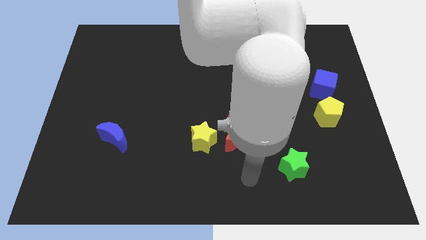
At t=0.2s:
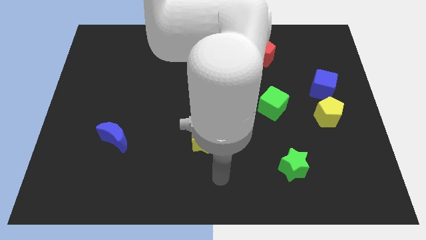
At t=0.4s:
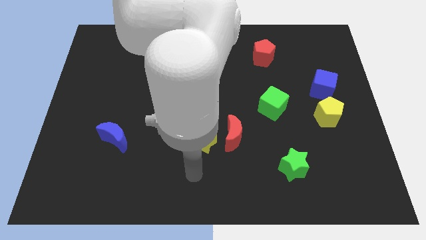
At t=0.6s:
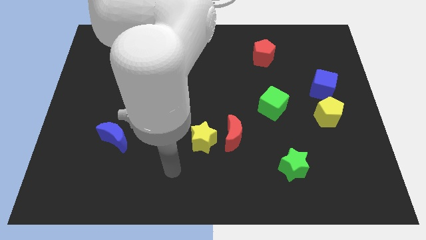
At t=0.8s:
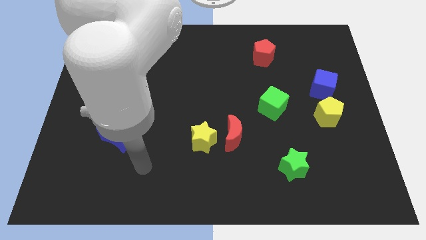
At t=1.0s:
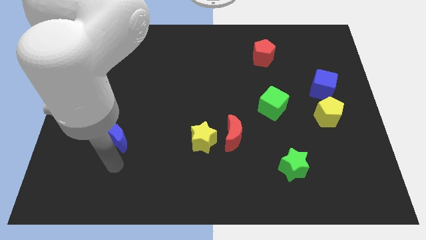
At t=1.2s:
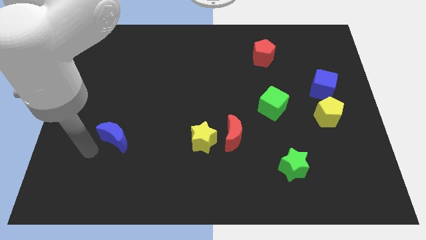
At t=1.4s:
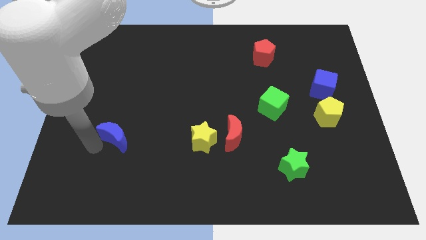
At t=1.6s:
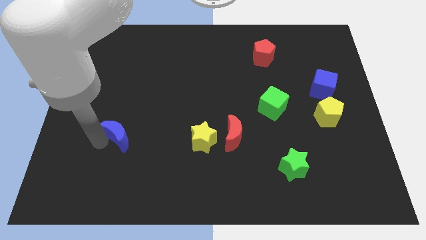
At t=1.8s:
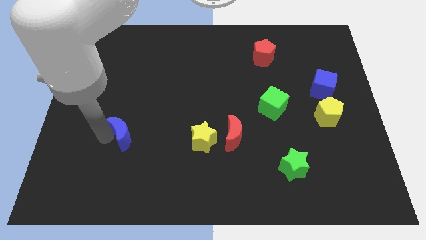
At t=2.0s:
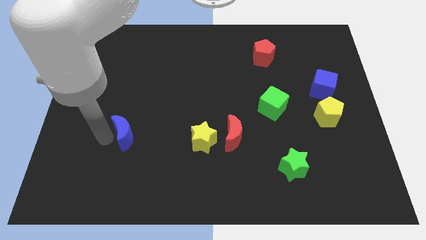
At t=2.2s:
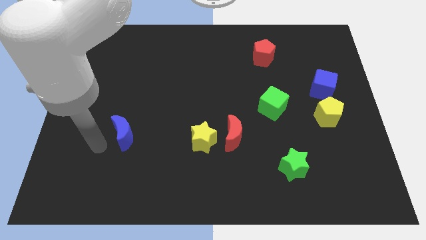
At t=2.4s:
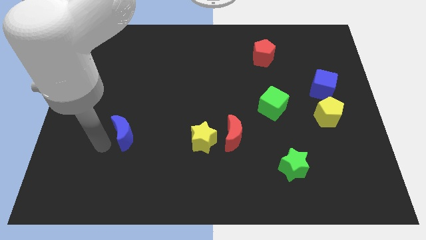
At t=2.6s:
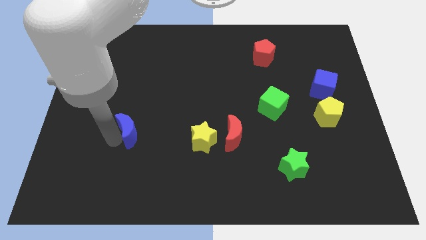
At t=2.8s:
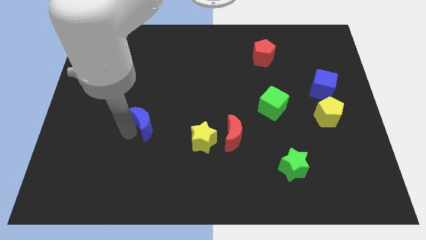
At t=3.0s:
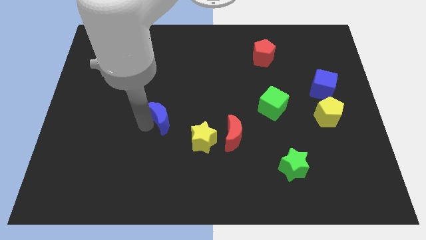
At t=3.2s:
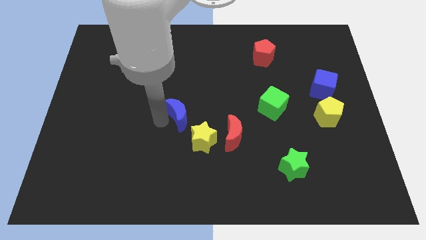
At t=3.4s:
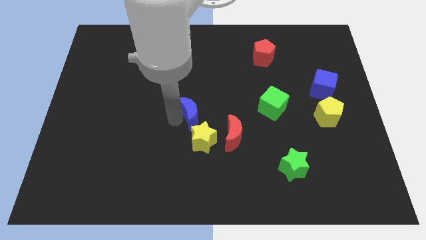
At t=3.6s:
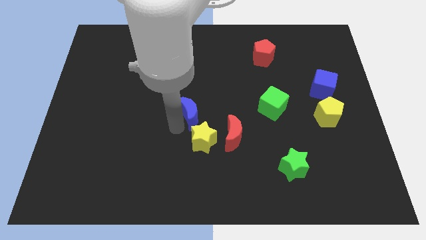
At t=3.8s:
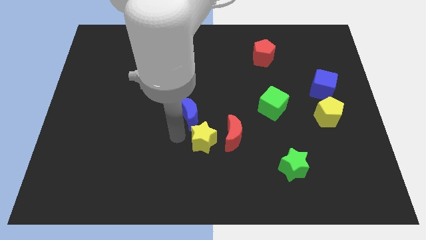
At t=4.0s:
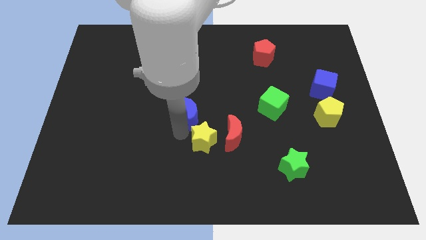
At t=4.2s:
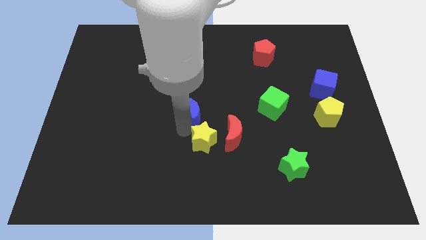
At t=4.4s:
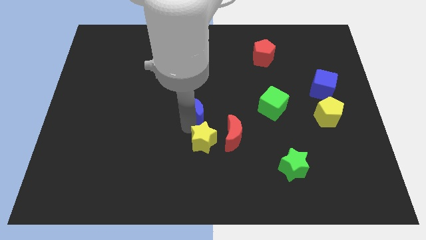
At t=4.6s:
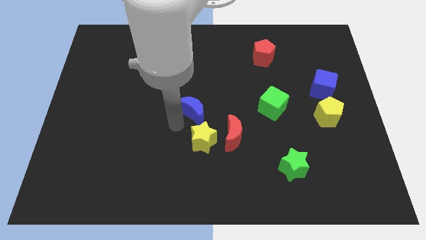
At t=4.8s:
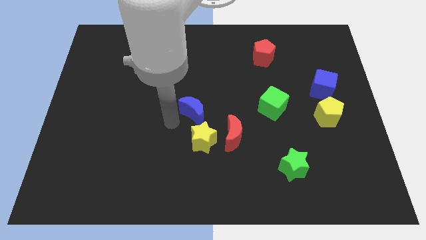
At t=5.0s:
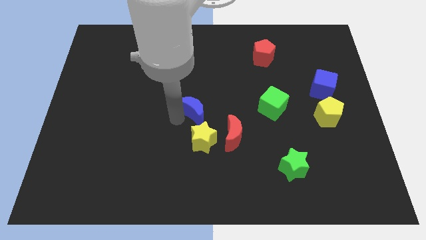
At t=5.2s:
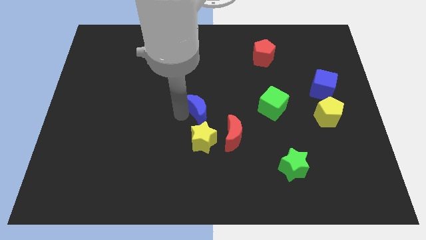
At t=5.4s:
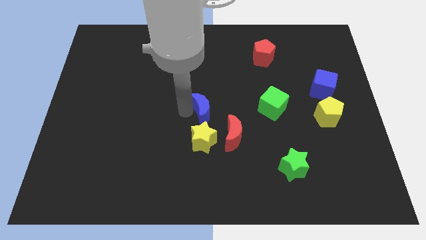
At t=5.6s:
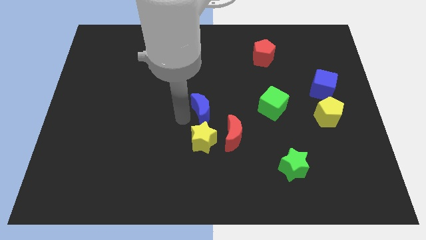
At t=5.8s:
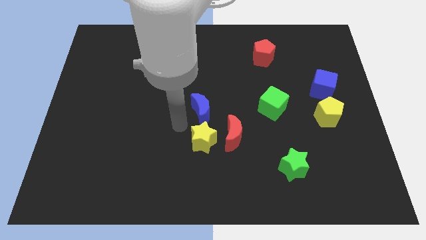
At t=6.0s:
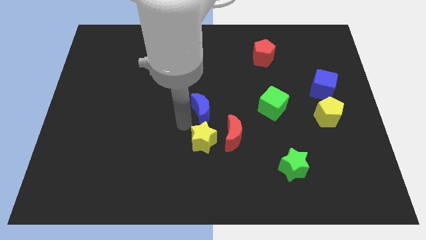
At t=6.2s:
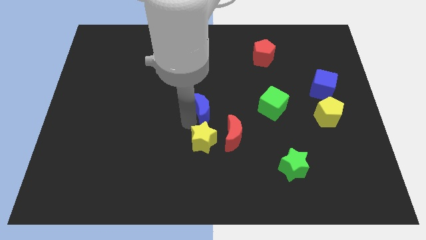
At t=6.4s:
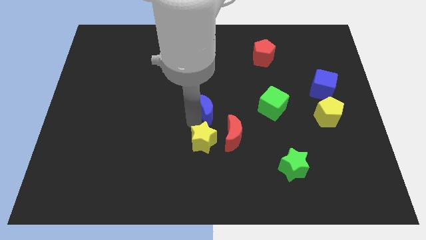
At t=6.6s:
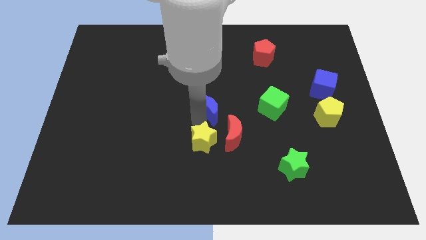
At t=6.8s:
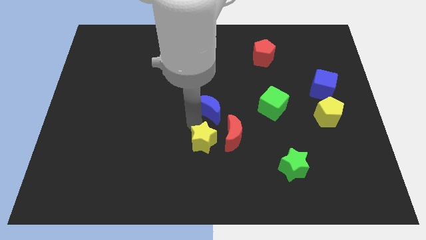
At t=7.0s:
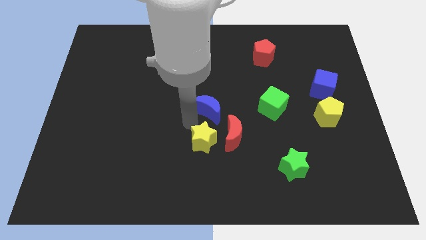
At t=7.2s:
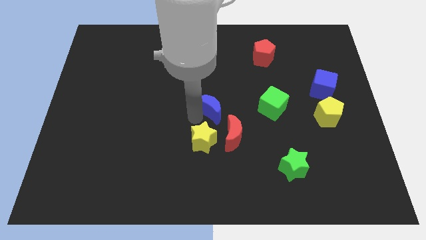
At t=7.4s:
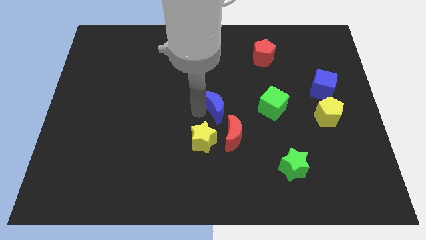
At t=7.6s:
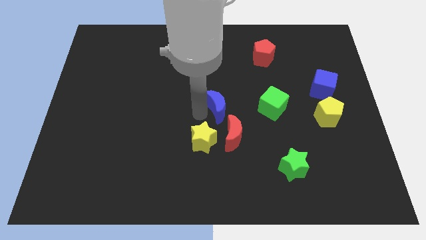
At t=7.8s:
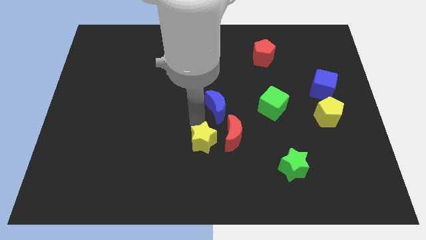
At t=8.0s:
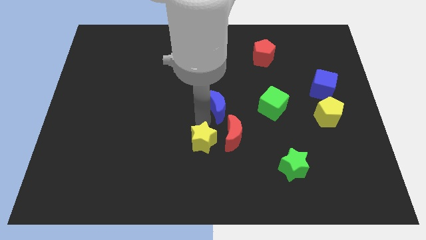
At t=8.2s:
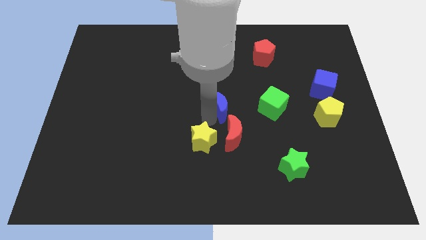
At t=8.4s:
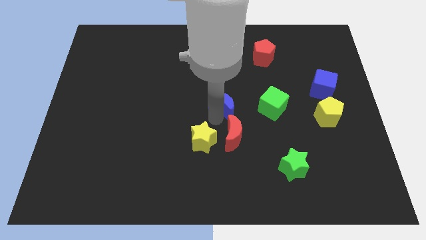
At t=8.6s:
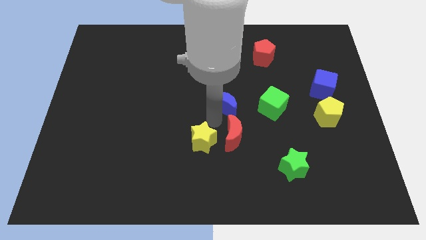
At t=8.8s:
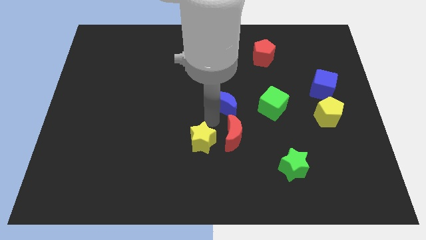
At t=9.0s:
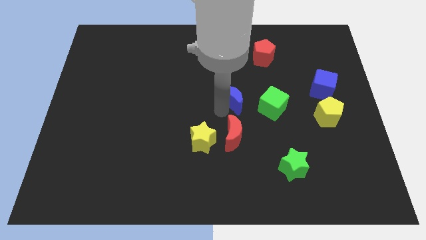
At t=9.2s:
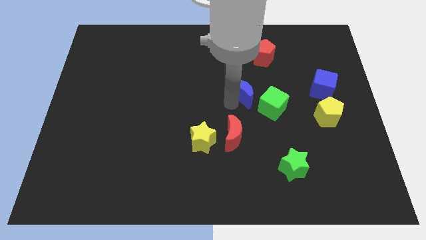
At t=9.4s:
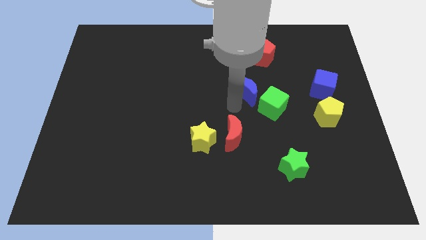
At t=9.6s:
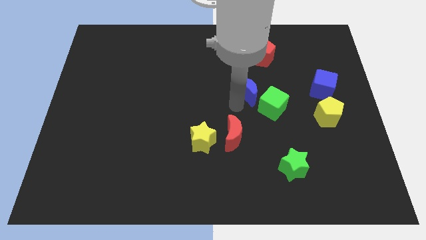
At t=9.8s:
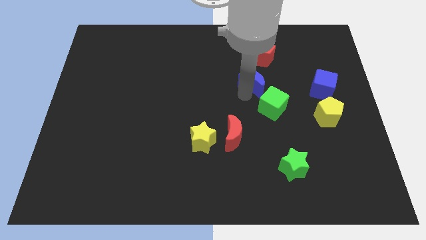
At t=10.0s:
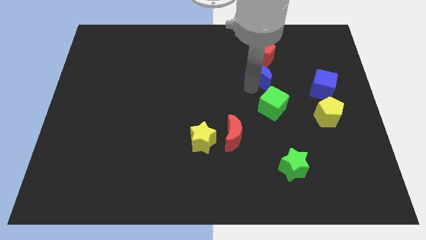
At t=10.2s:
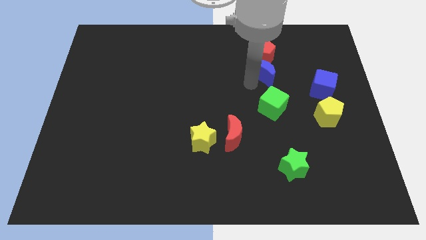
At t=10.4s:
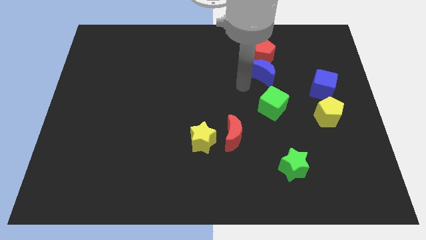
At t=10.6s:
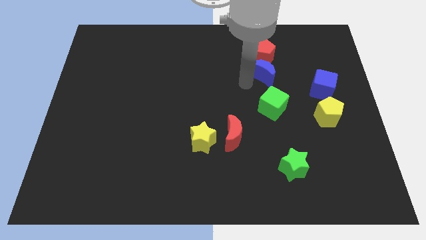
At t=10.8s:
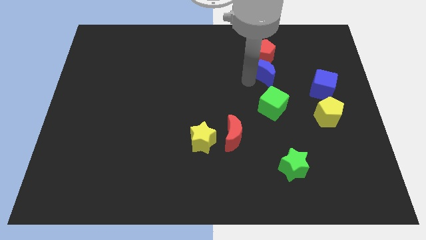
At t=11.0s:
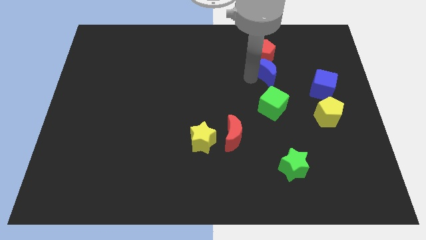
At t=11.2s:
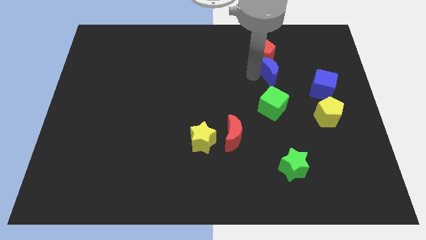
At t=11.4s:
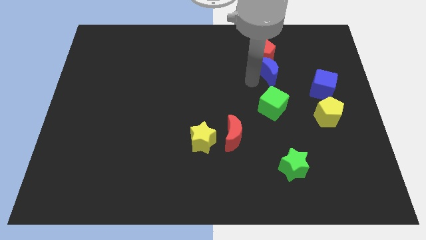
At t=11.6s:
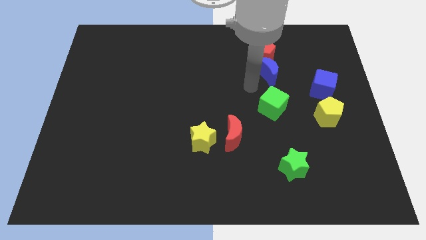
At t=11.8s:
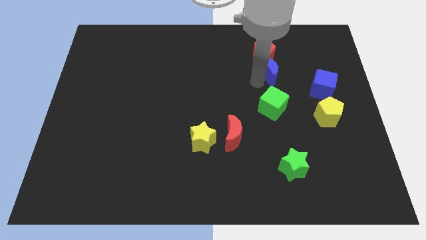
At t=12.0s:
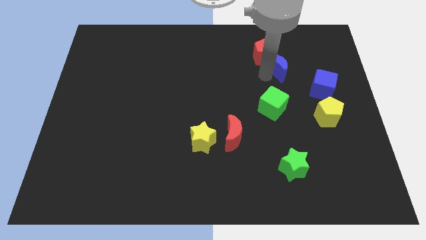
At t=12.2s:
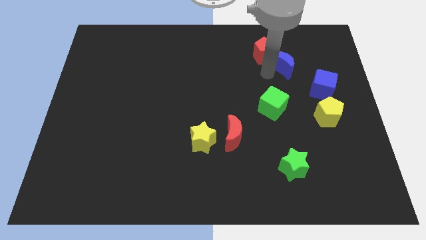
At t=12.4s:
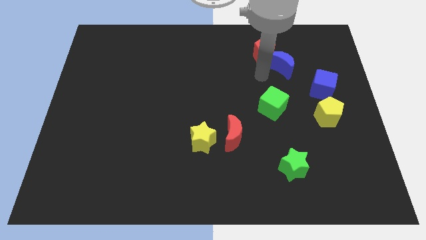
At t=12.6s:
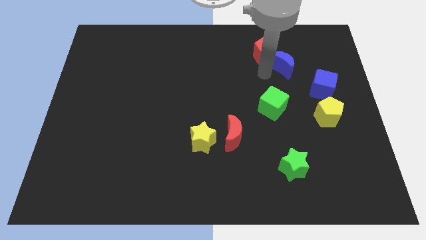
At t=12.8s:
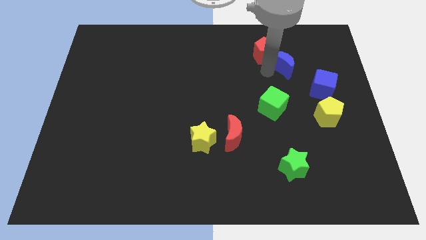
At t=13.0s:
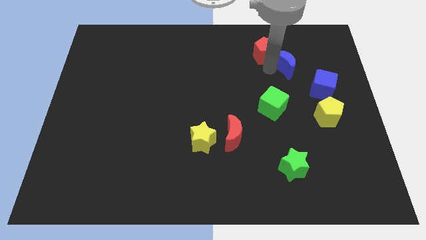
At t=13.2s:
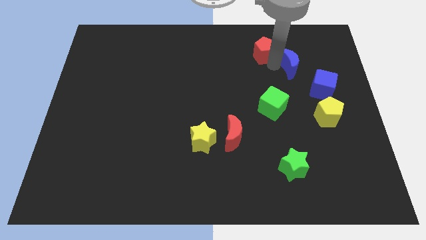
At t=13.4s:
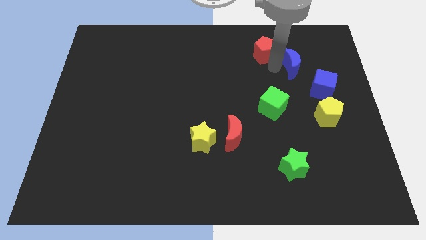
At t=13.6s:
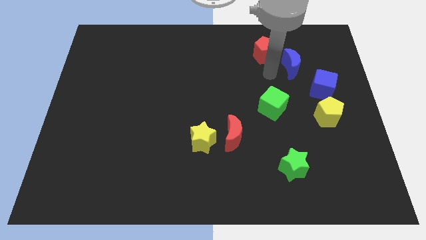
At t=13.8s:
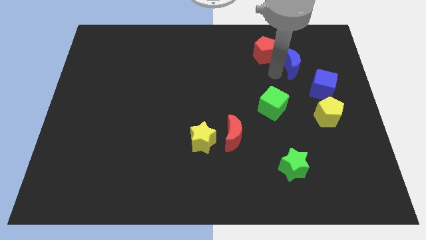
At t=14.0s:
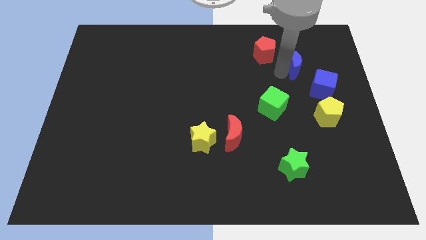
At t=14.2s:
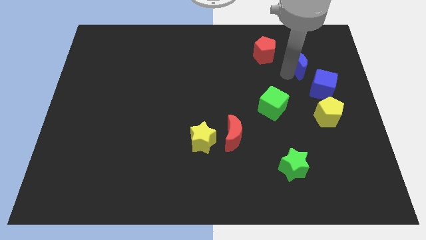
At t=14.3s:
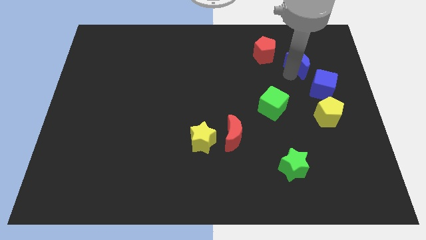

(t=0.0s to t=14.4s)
move the blue moon to the top of the blue cube
